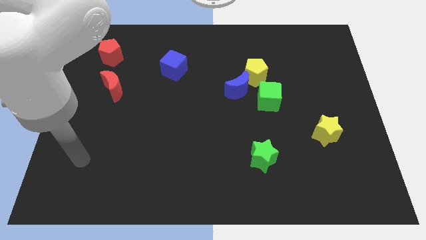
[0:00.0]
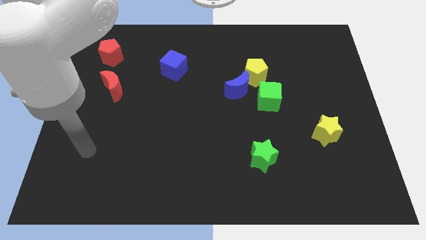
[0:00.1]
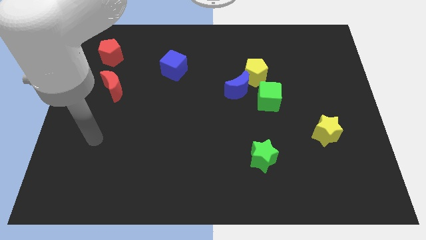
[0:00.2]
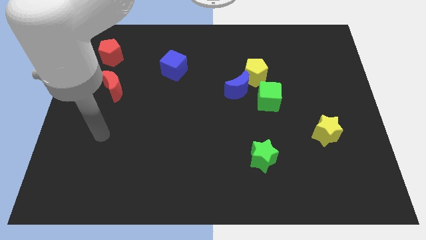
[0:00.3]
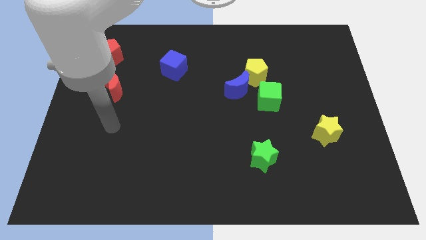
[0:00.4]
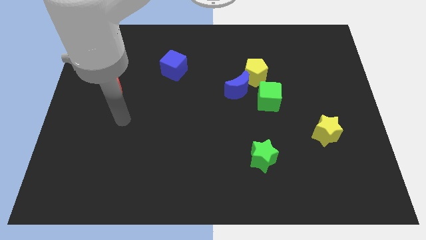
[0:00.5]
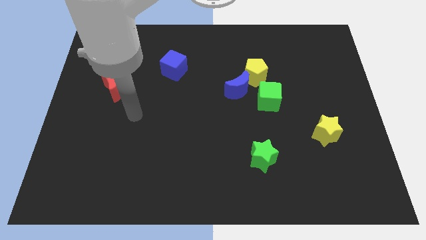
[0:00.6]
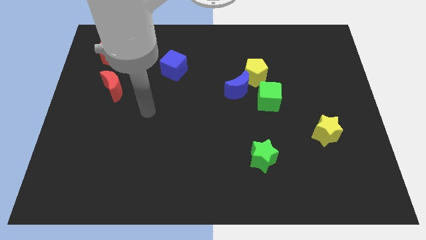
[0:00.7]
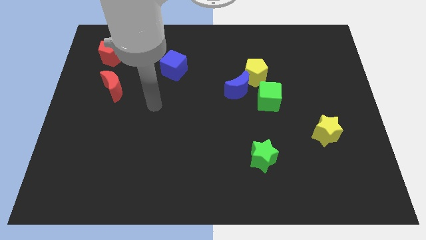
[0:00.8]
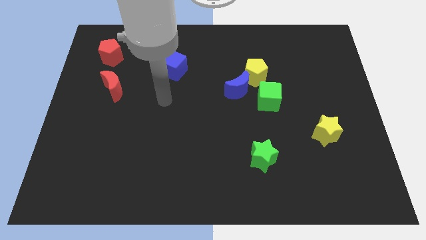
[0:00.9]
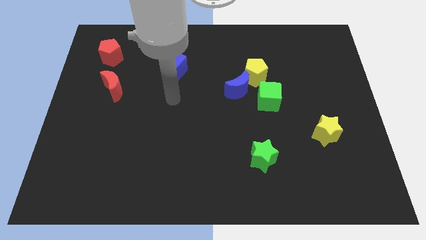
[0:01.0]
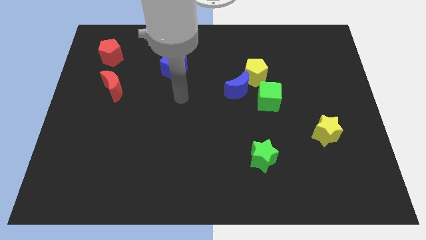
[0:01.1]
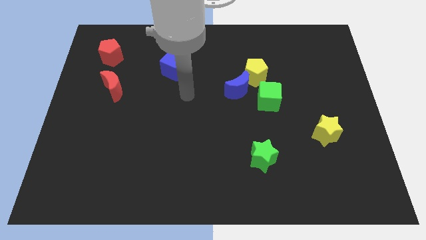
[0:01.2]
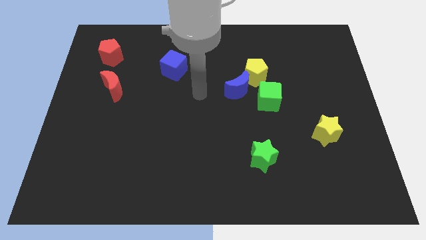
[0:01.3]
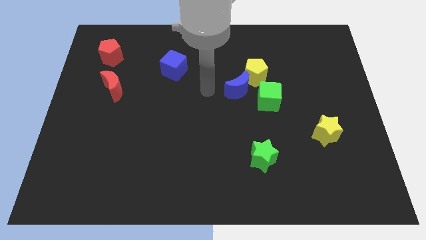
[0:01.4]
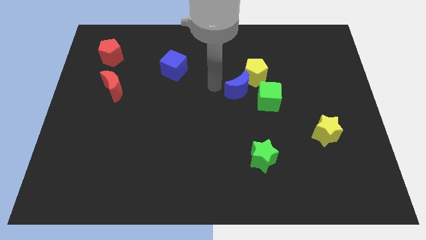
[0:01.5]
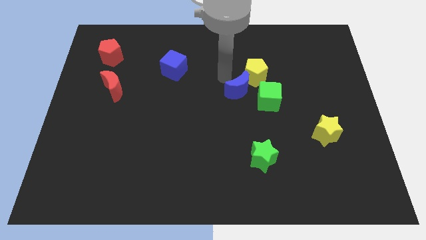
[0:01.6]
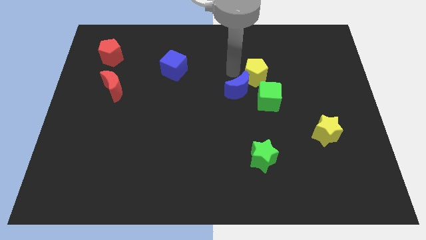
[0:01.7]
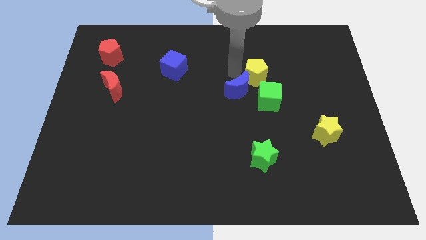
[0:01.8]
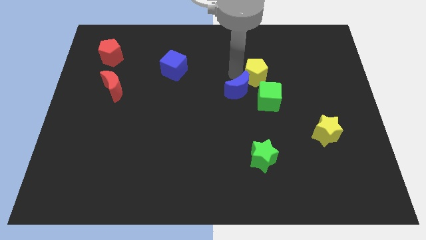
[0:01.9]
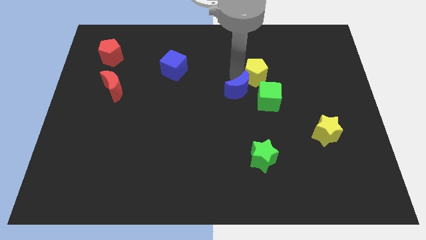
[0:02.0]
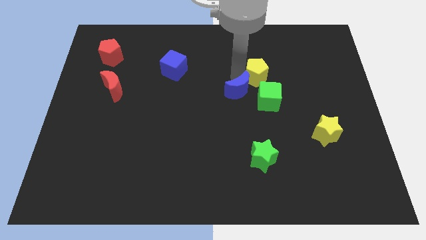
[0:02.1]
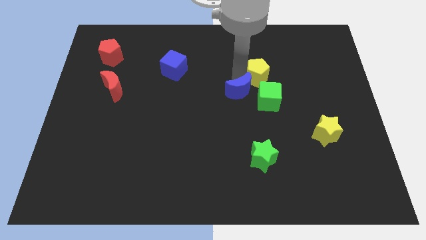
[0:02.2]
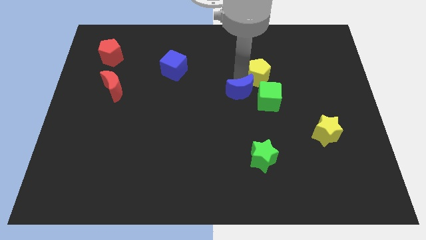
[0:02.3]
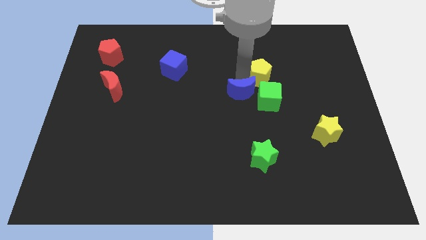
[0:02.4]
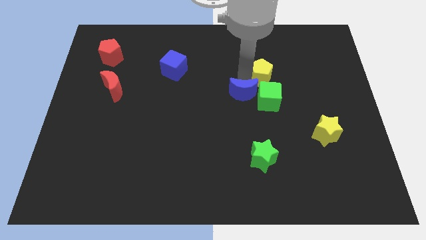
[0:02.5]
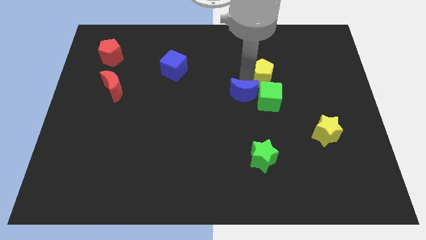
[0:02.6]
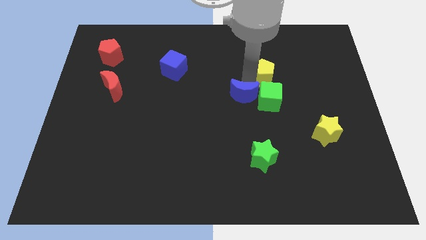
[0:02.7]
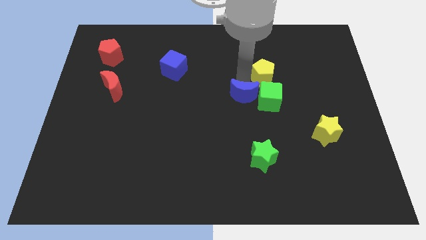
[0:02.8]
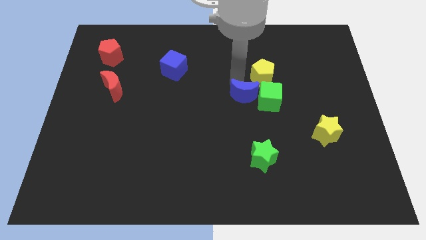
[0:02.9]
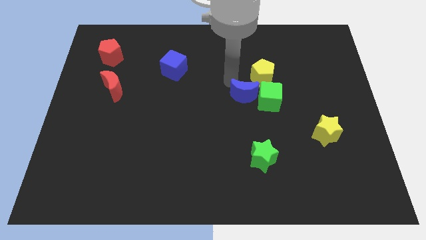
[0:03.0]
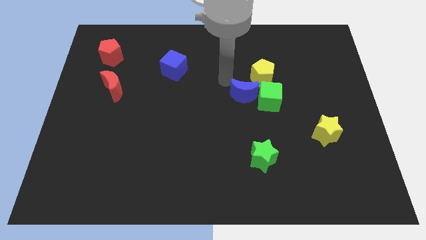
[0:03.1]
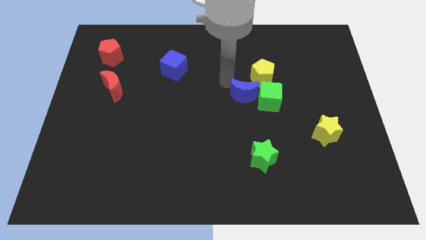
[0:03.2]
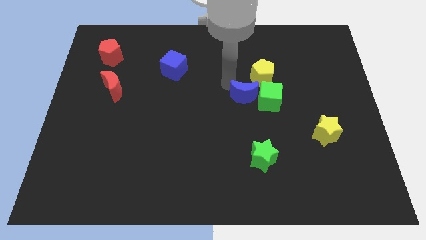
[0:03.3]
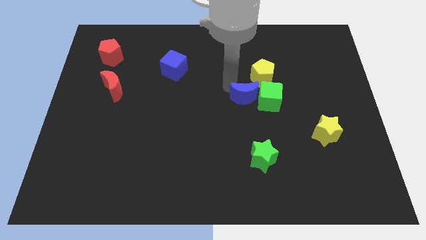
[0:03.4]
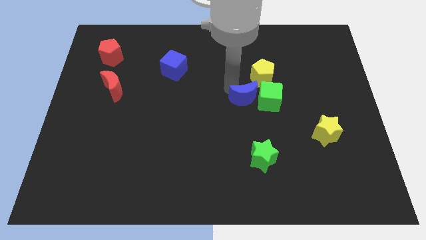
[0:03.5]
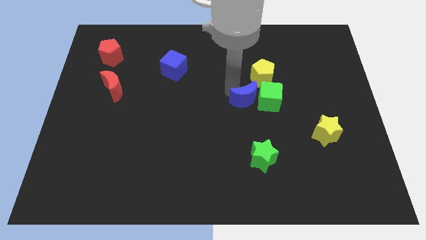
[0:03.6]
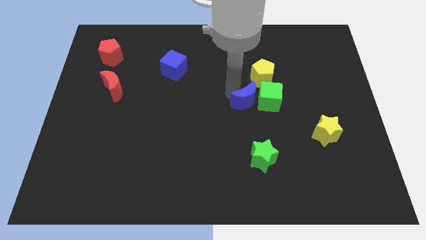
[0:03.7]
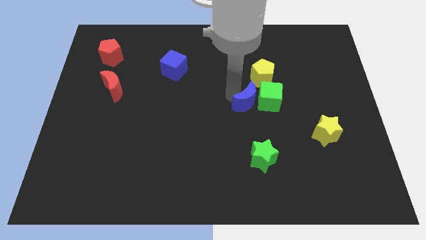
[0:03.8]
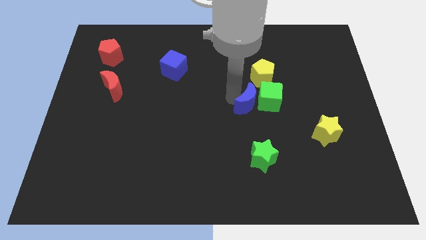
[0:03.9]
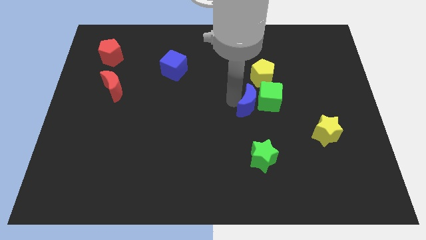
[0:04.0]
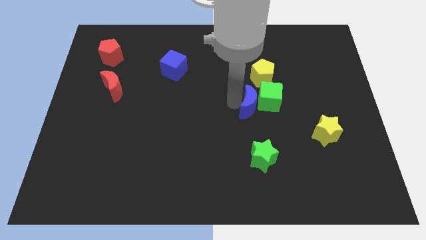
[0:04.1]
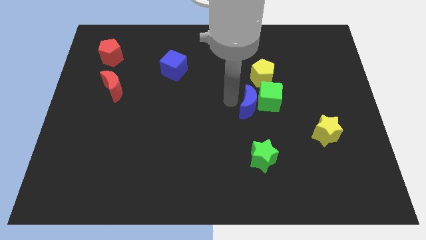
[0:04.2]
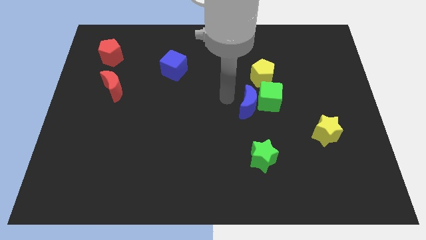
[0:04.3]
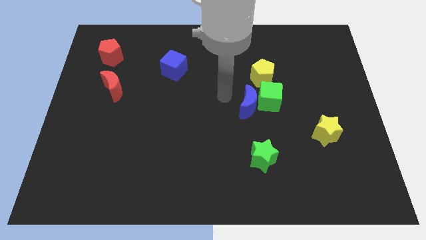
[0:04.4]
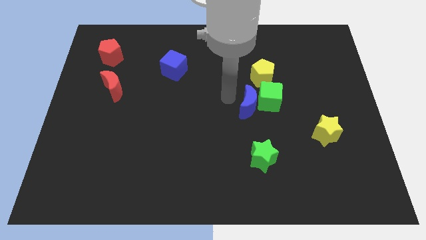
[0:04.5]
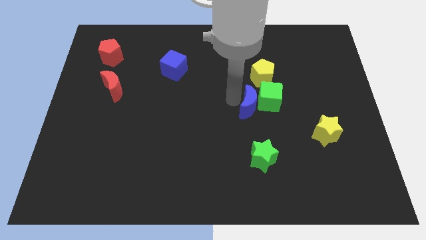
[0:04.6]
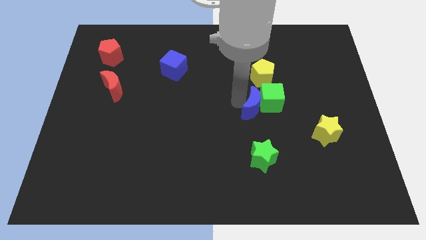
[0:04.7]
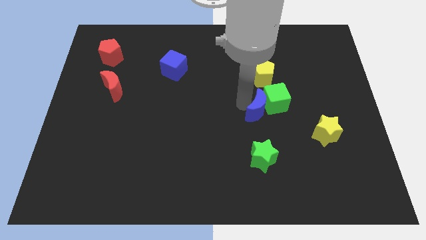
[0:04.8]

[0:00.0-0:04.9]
move the blue moon downwards and then to the right a little bit

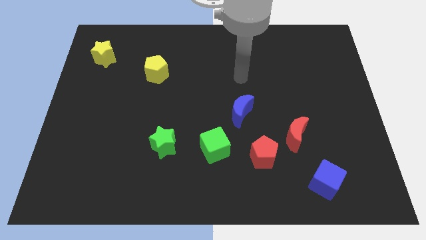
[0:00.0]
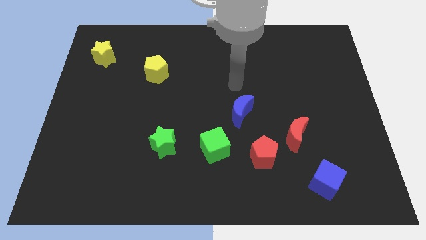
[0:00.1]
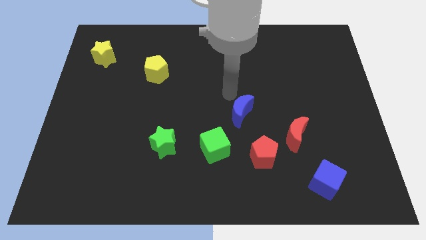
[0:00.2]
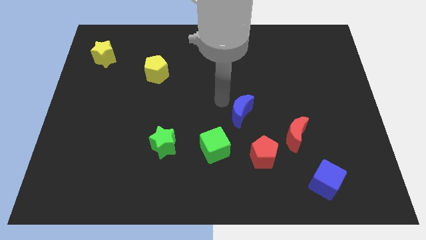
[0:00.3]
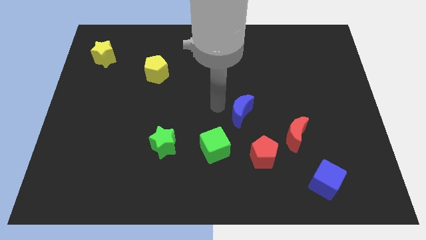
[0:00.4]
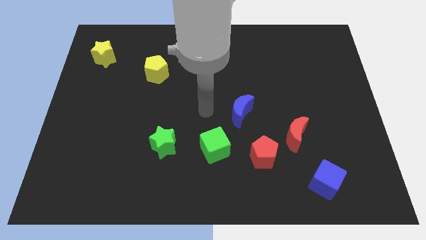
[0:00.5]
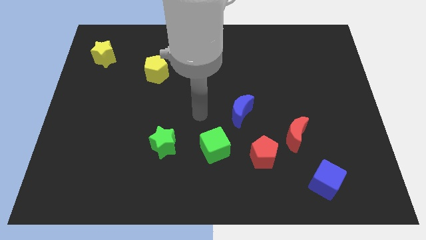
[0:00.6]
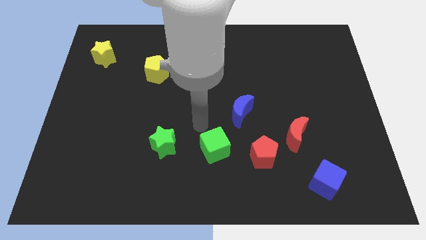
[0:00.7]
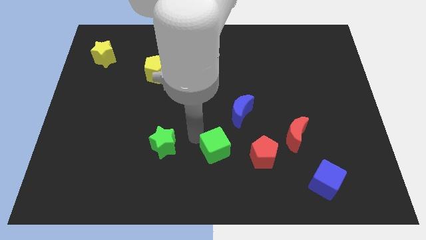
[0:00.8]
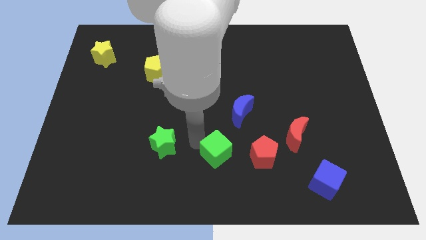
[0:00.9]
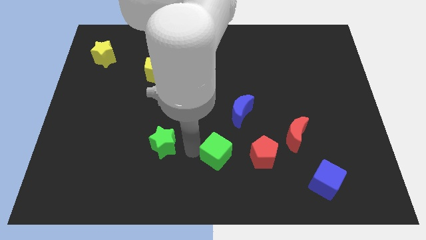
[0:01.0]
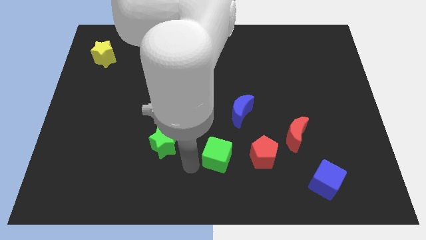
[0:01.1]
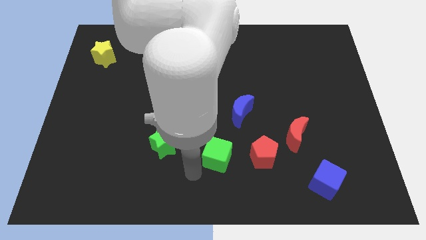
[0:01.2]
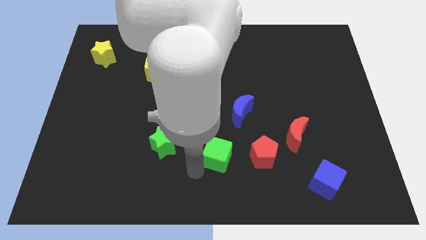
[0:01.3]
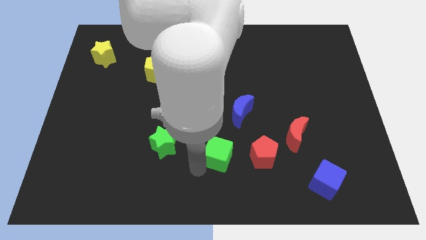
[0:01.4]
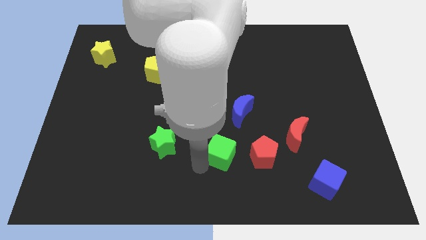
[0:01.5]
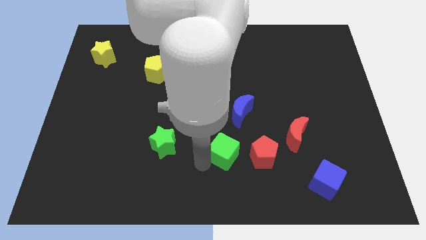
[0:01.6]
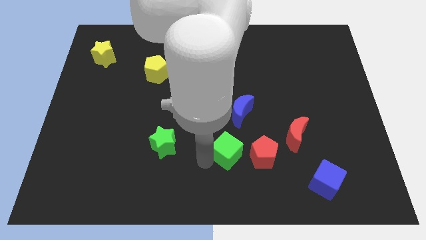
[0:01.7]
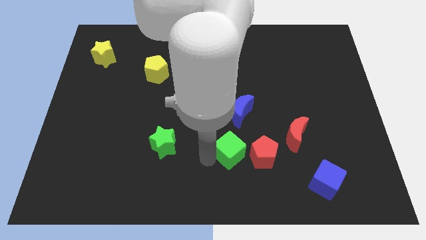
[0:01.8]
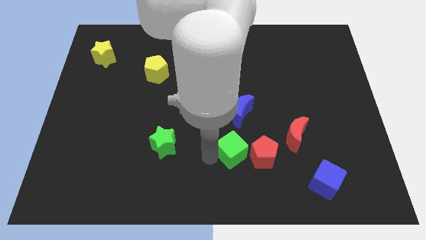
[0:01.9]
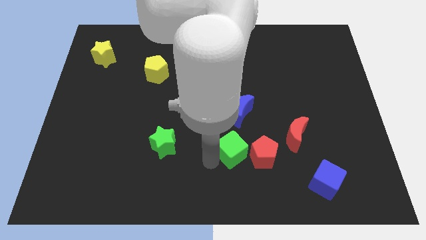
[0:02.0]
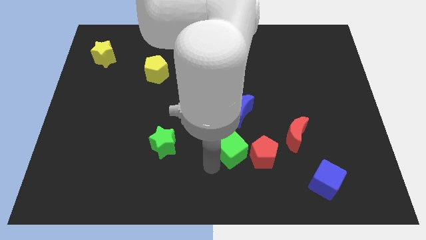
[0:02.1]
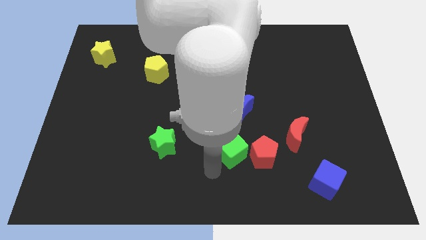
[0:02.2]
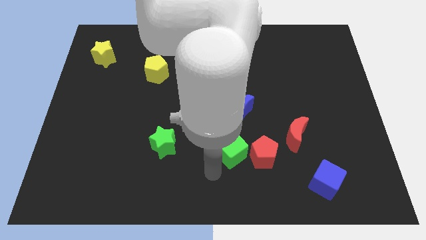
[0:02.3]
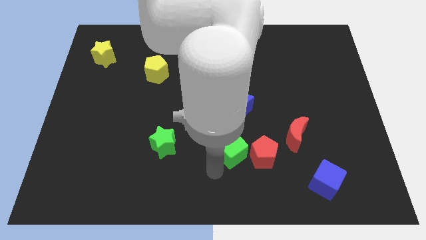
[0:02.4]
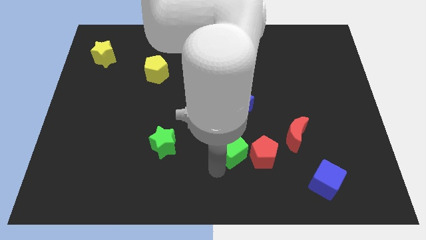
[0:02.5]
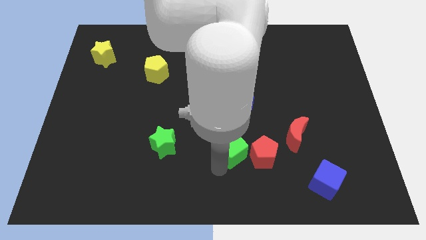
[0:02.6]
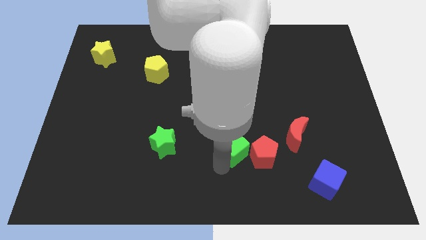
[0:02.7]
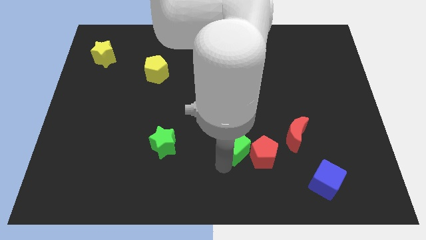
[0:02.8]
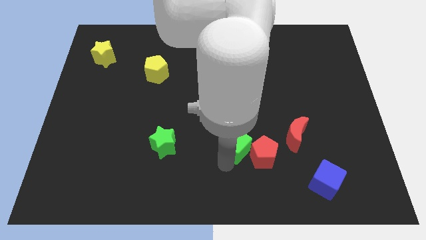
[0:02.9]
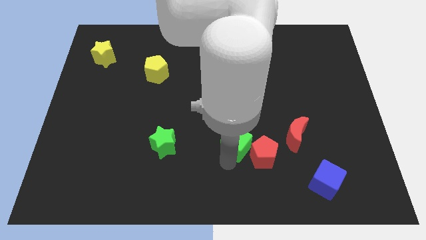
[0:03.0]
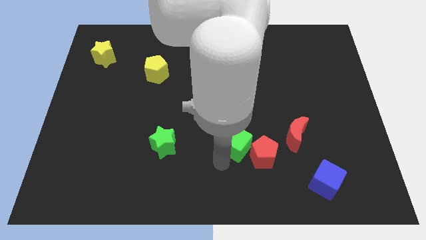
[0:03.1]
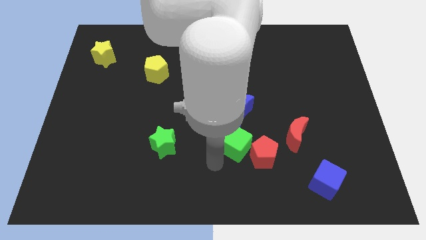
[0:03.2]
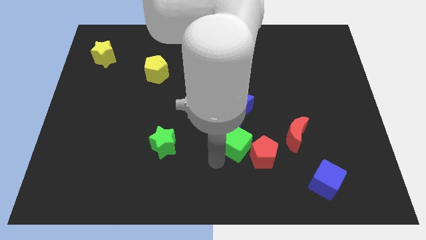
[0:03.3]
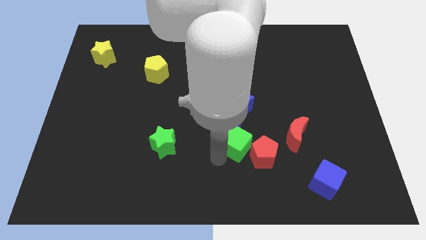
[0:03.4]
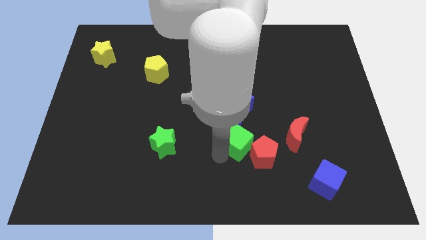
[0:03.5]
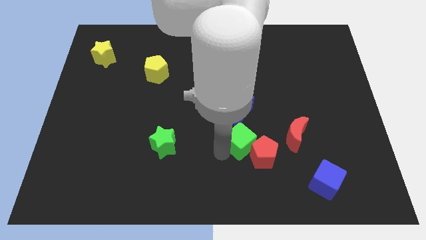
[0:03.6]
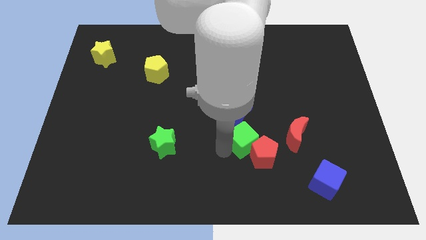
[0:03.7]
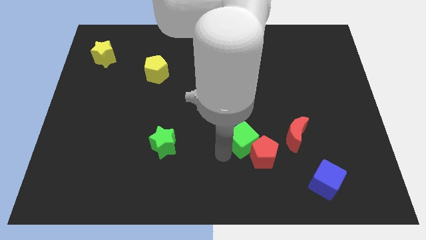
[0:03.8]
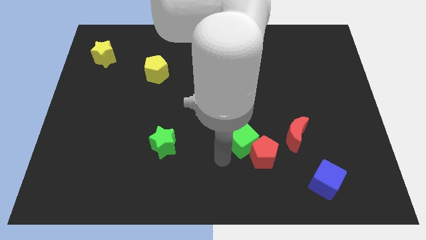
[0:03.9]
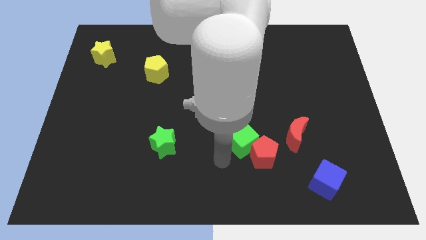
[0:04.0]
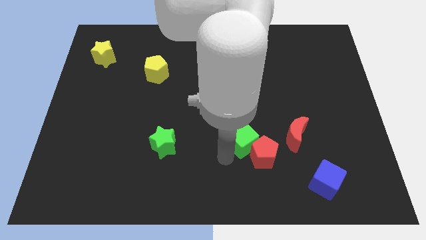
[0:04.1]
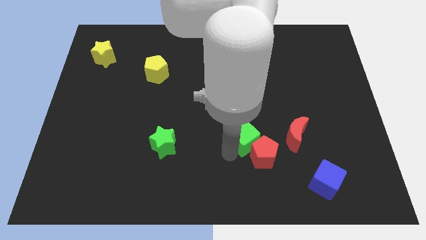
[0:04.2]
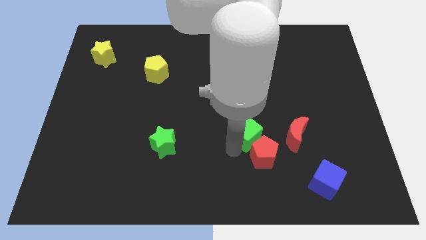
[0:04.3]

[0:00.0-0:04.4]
move the green cube diagonally upwards and right a bit
